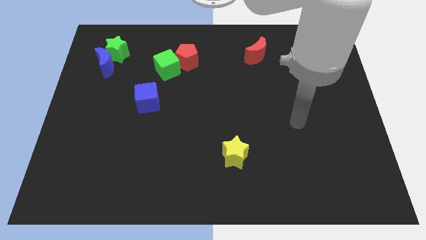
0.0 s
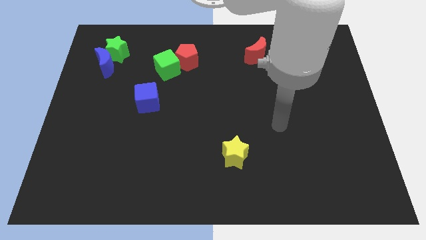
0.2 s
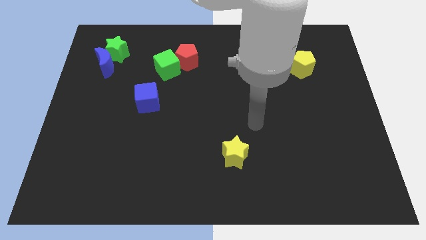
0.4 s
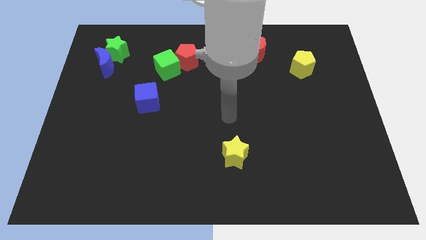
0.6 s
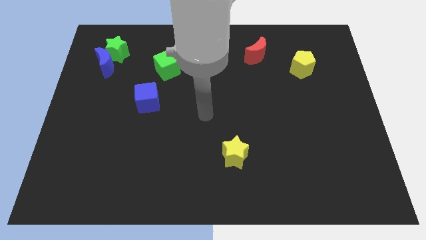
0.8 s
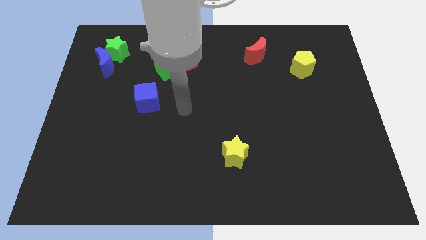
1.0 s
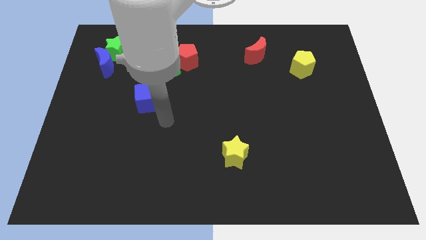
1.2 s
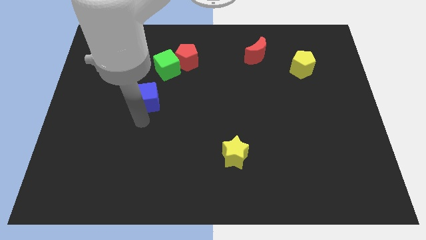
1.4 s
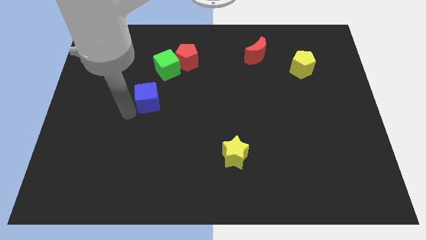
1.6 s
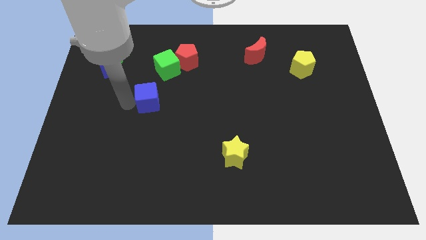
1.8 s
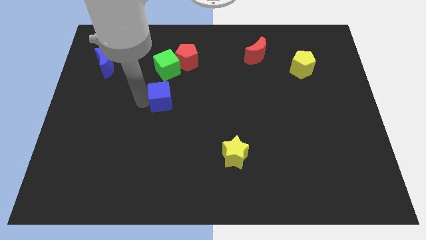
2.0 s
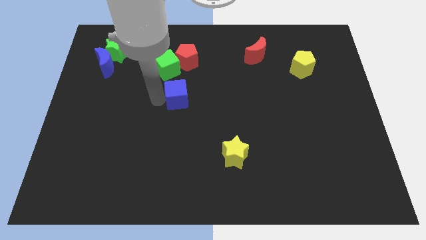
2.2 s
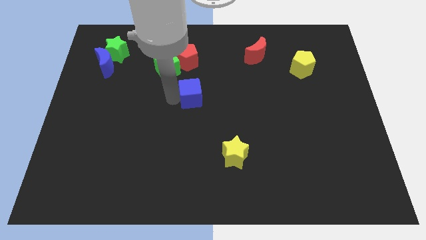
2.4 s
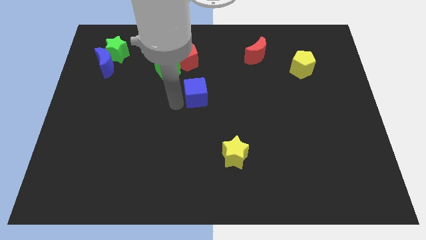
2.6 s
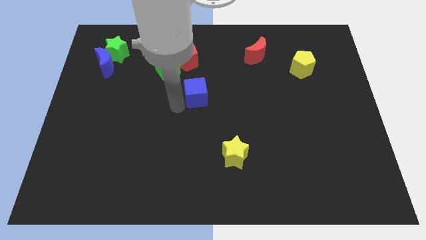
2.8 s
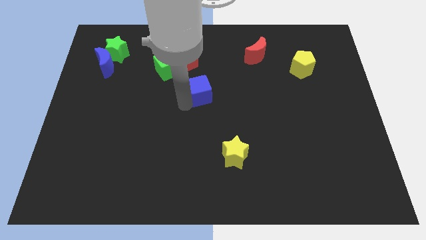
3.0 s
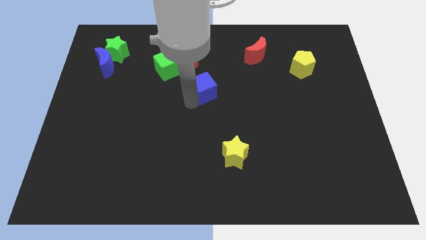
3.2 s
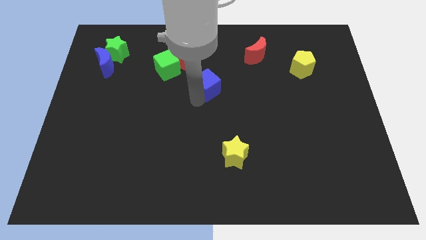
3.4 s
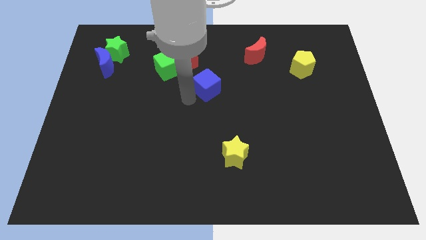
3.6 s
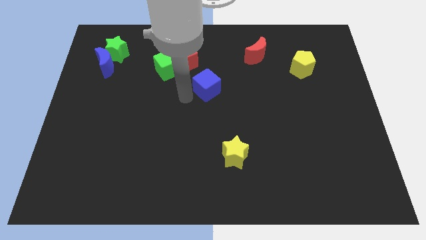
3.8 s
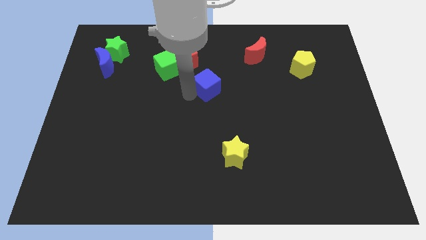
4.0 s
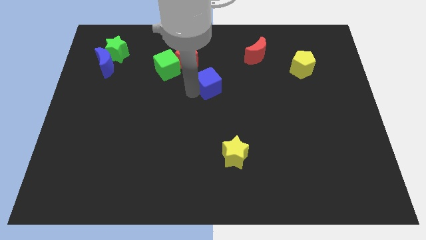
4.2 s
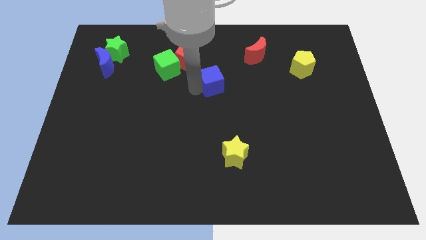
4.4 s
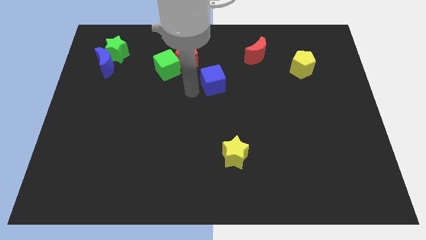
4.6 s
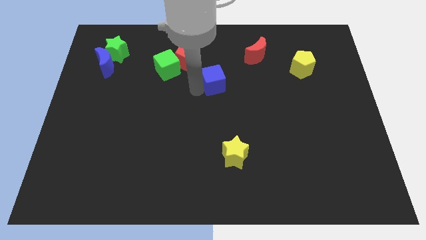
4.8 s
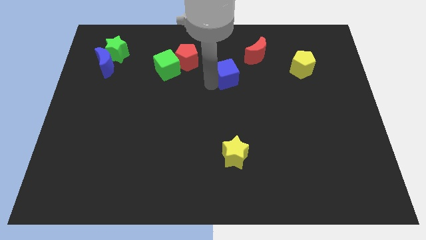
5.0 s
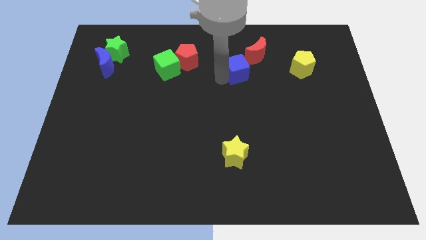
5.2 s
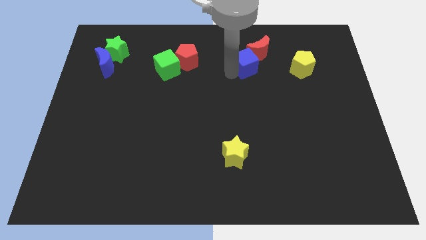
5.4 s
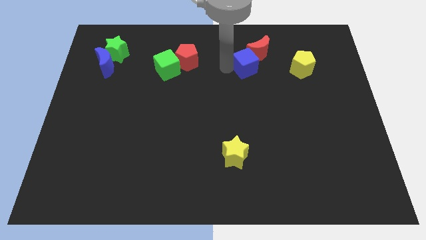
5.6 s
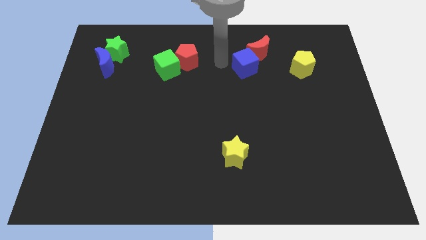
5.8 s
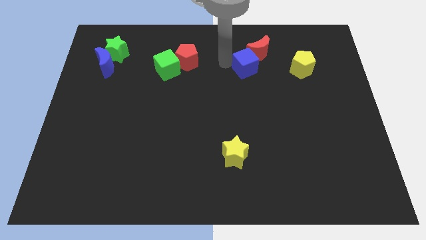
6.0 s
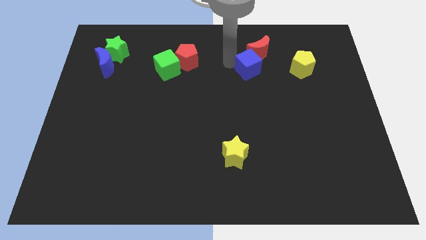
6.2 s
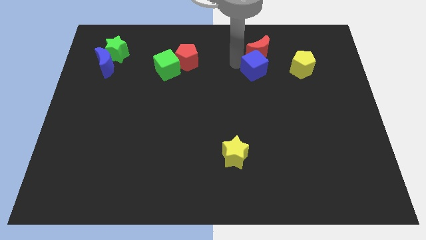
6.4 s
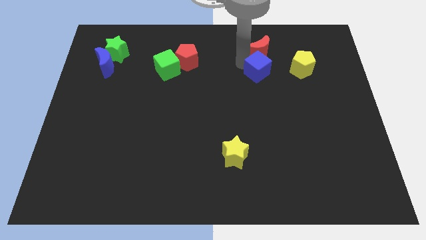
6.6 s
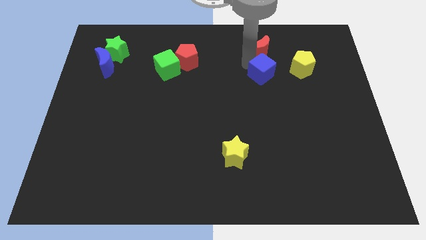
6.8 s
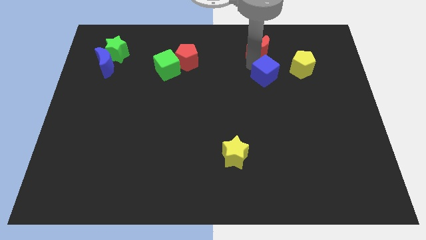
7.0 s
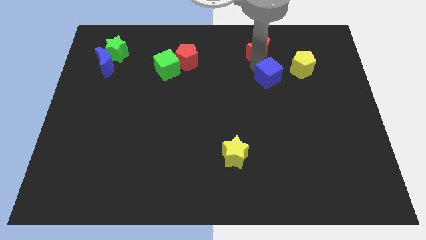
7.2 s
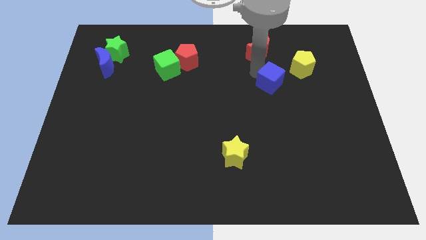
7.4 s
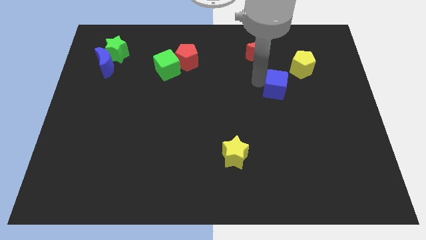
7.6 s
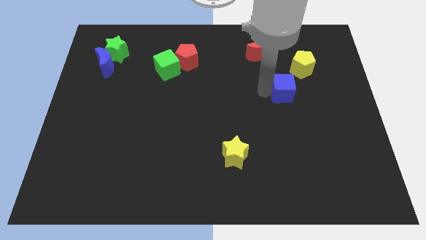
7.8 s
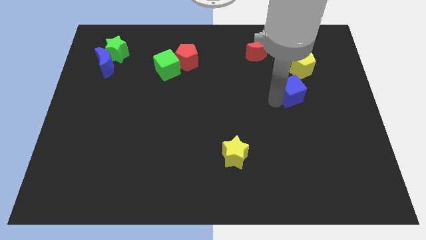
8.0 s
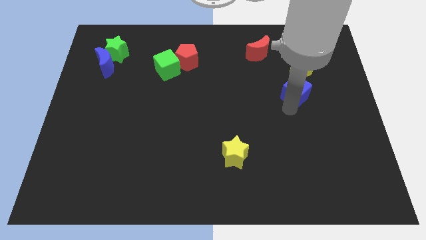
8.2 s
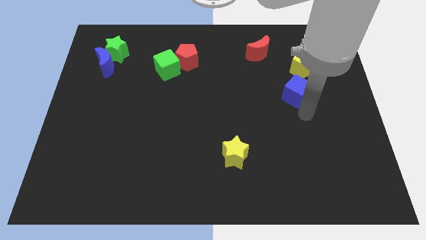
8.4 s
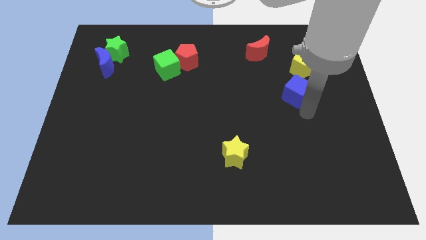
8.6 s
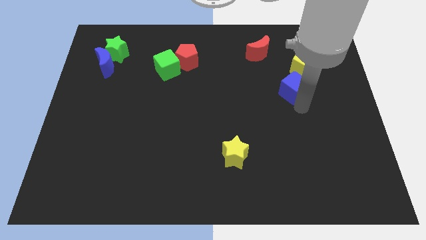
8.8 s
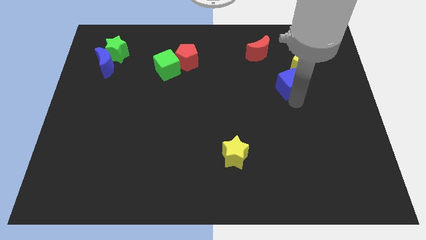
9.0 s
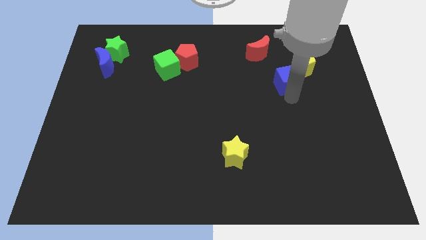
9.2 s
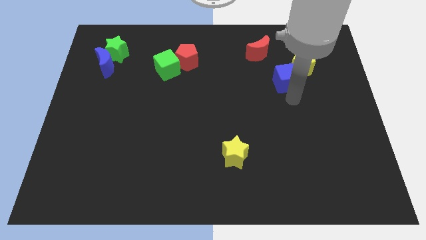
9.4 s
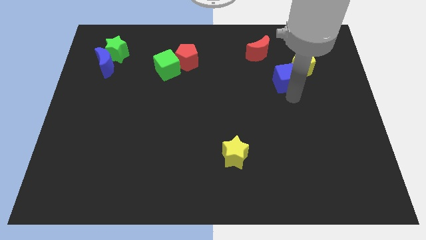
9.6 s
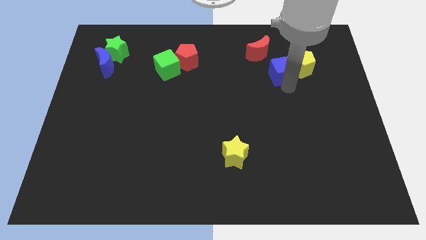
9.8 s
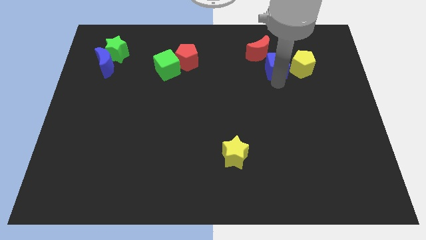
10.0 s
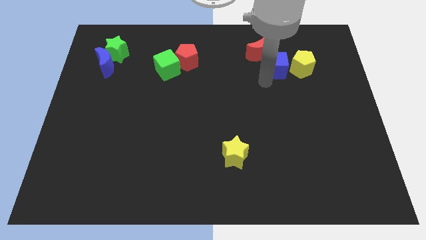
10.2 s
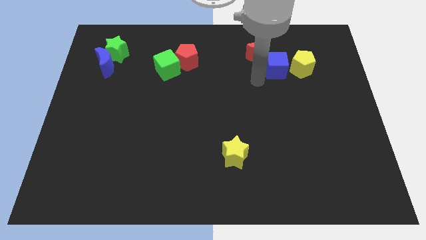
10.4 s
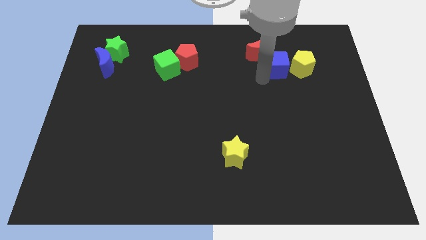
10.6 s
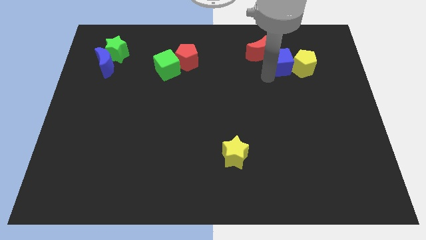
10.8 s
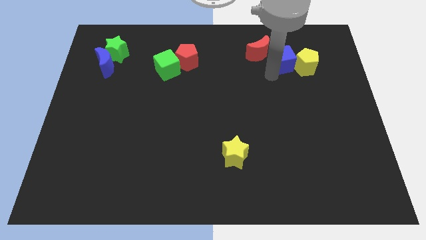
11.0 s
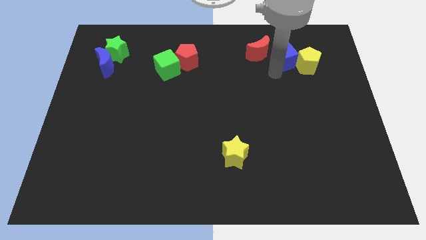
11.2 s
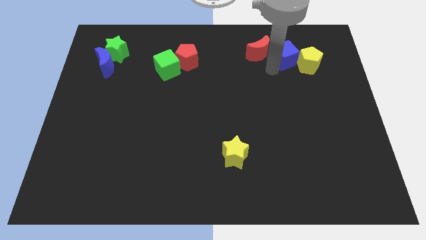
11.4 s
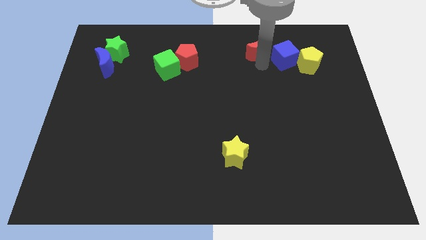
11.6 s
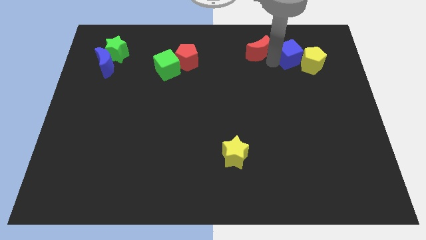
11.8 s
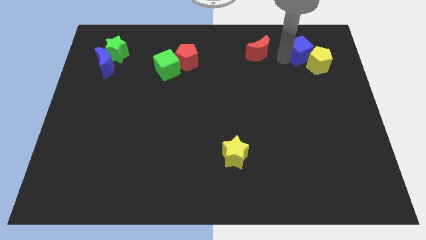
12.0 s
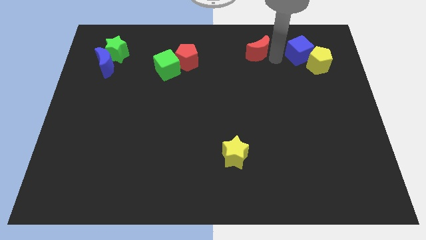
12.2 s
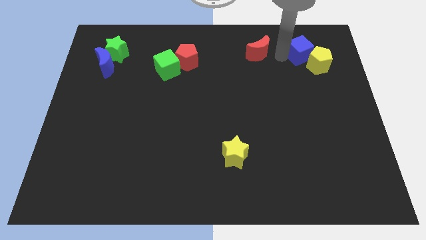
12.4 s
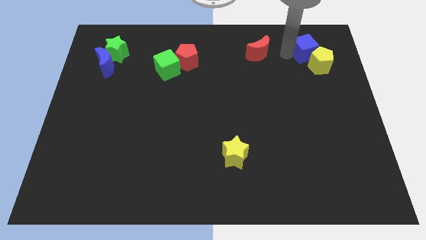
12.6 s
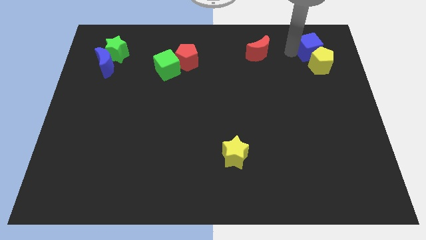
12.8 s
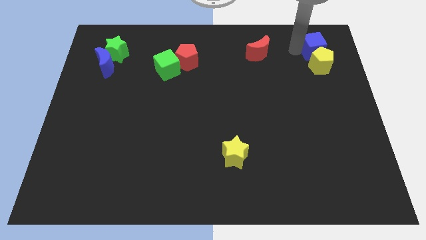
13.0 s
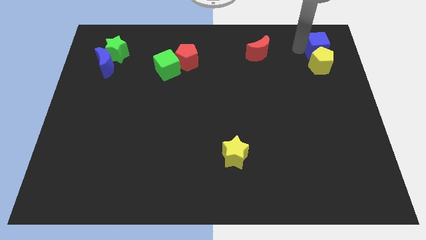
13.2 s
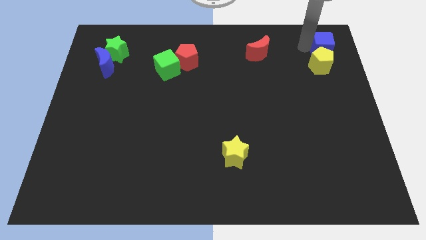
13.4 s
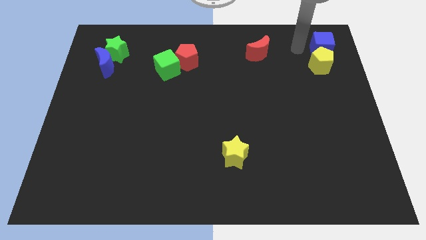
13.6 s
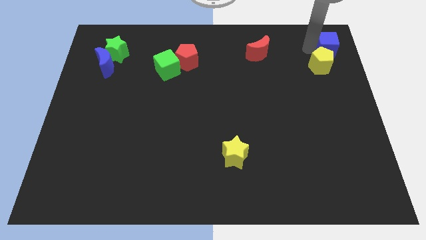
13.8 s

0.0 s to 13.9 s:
put the blue cube to the upper right corner
